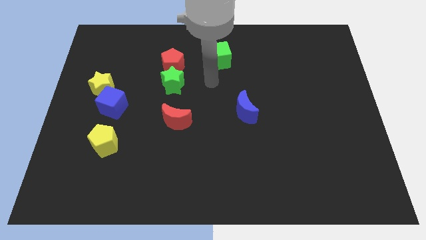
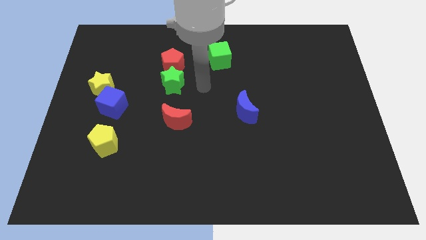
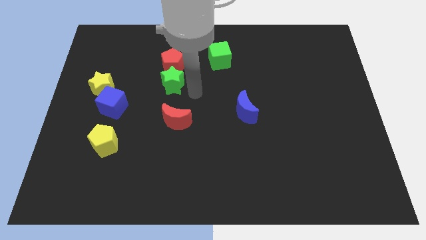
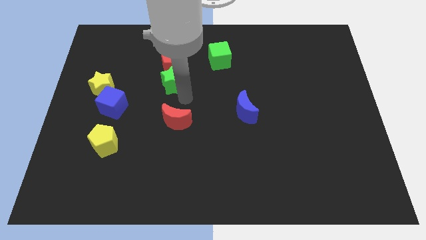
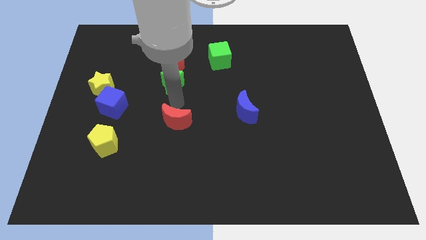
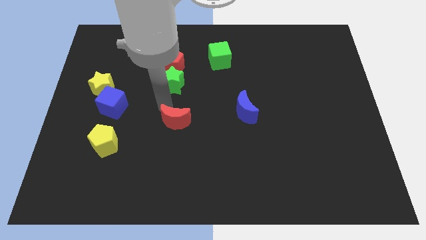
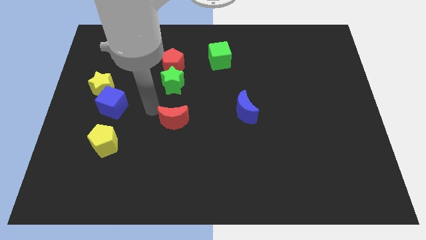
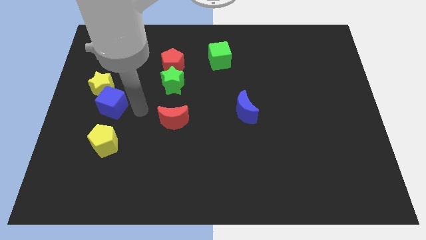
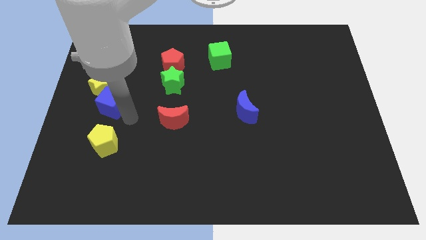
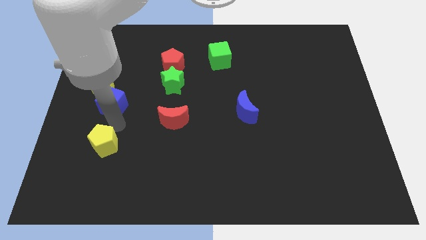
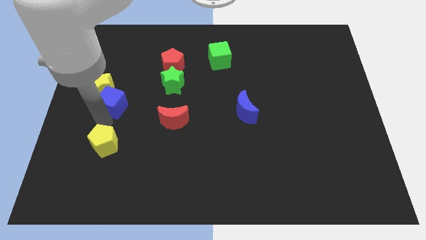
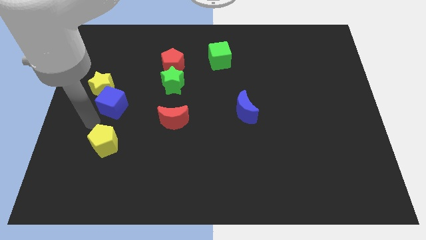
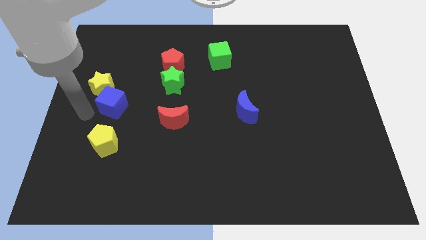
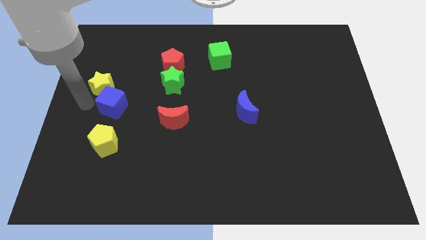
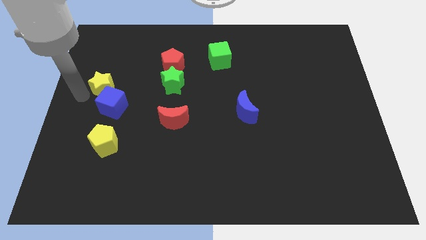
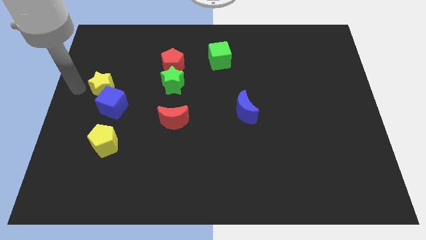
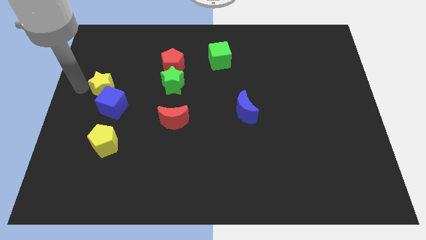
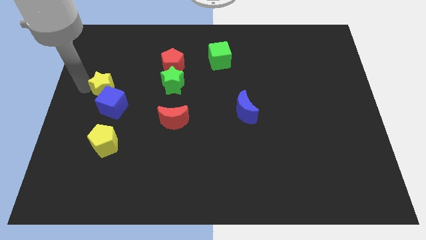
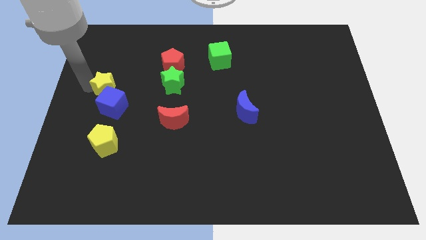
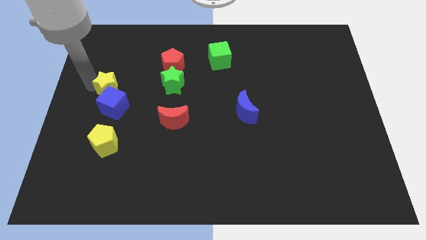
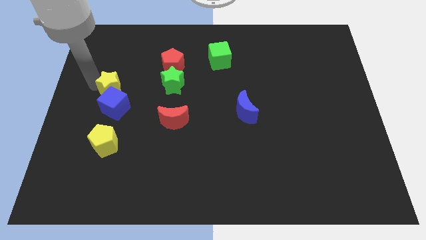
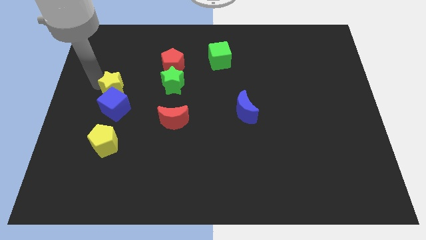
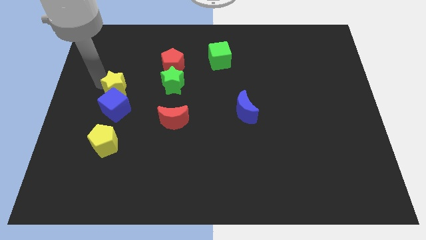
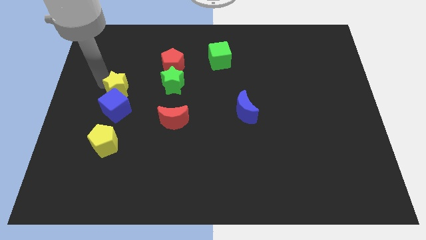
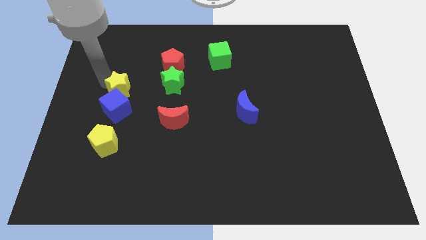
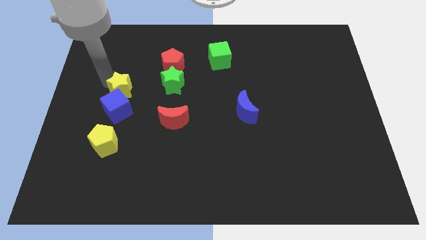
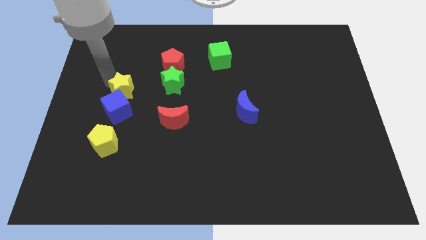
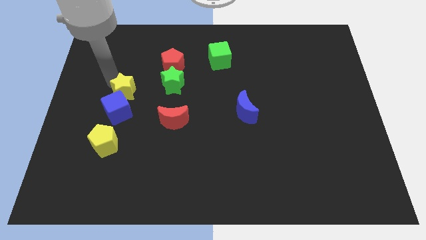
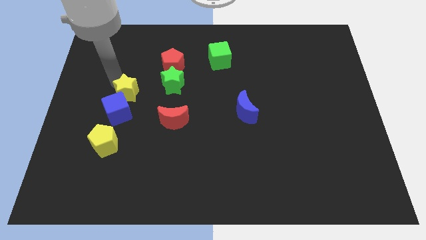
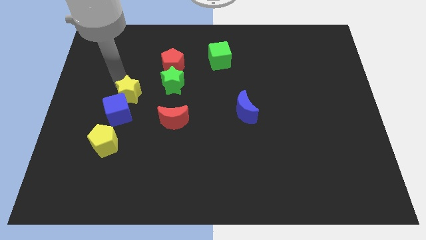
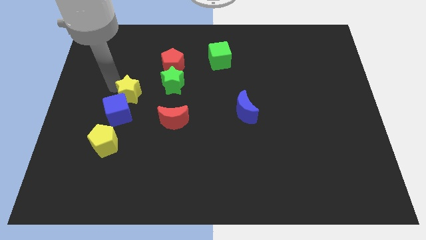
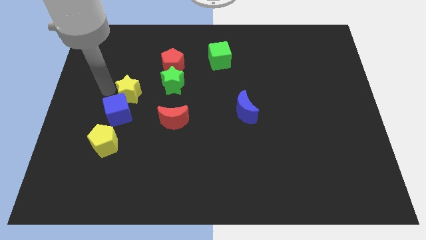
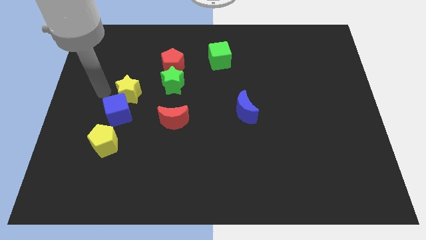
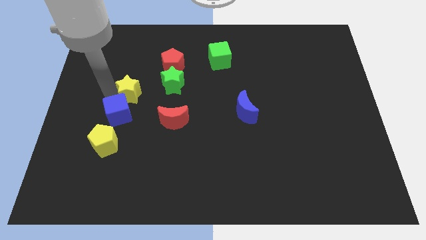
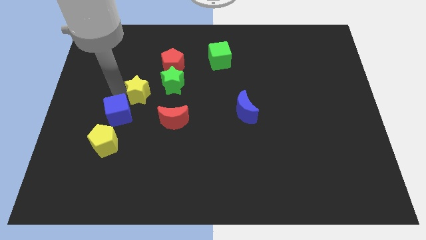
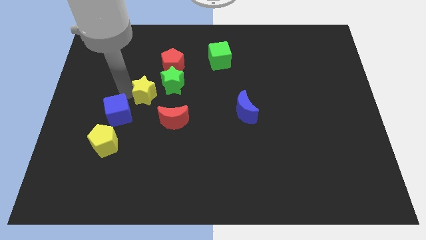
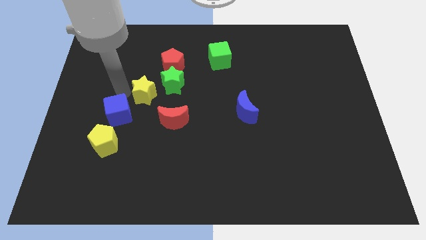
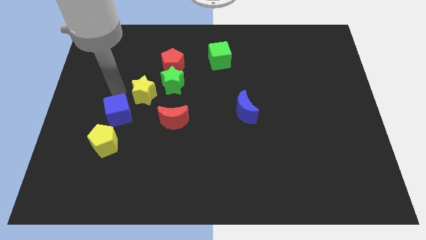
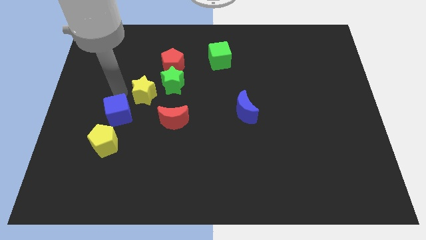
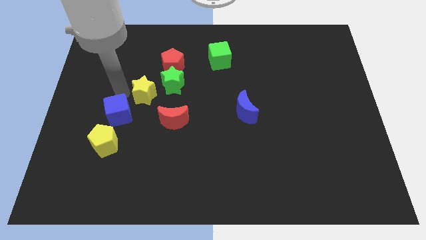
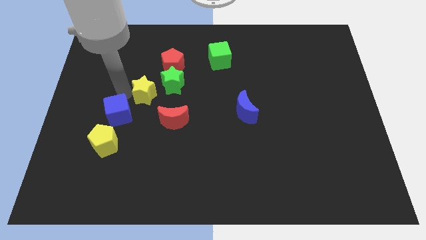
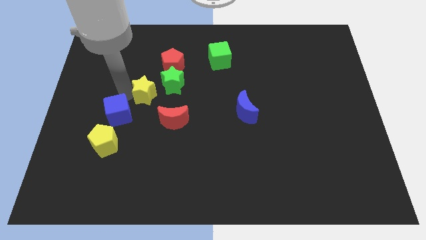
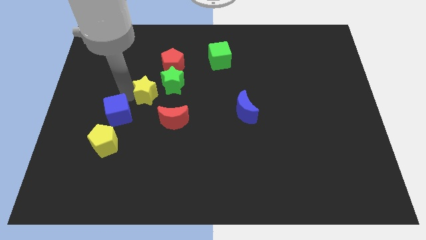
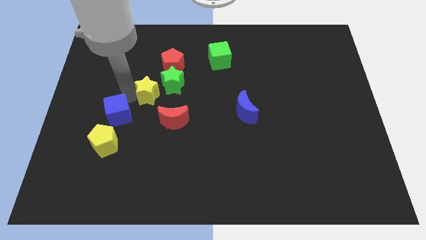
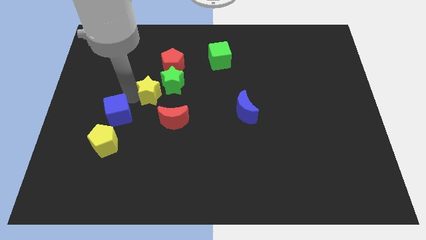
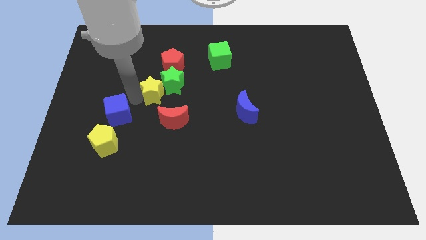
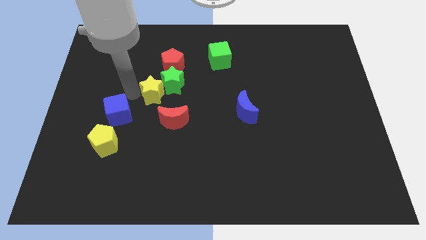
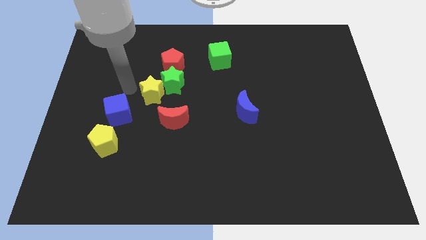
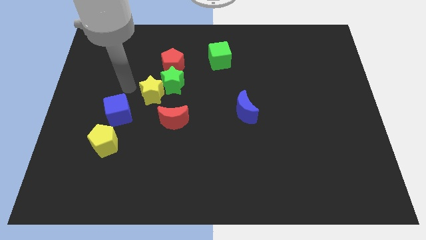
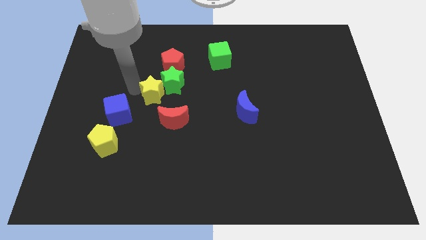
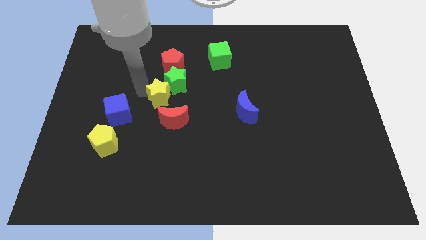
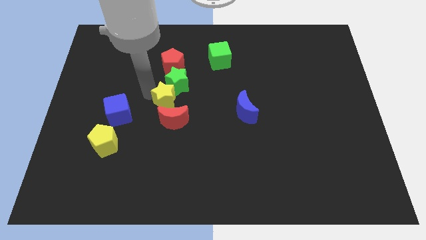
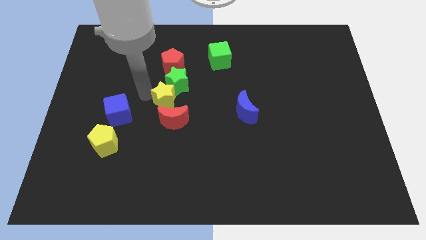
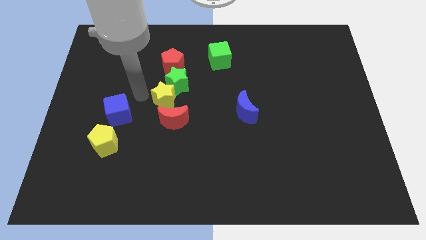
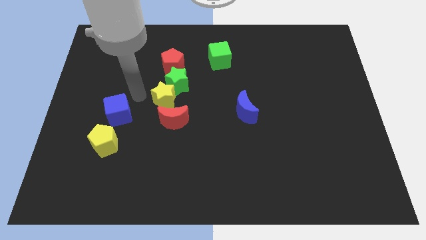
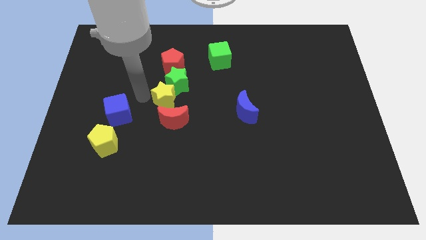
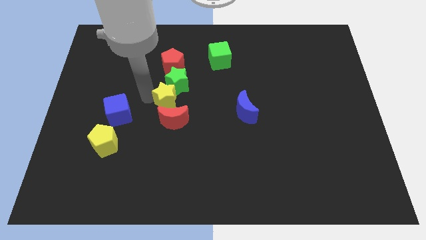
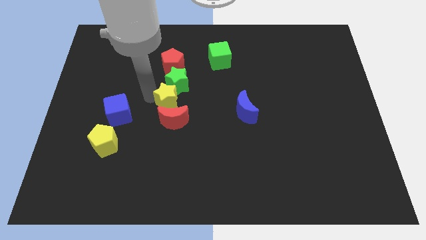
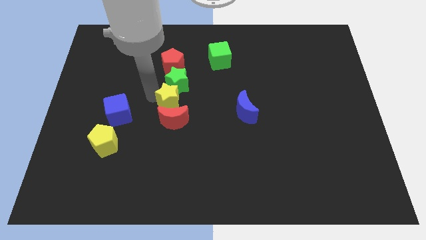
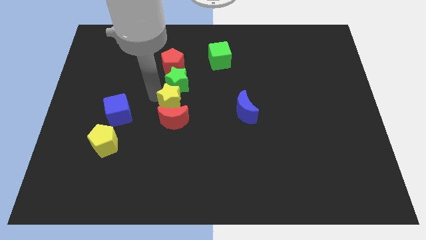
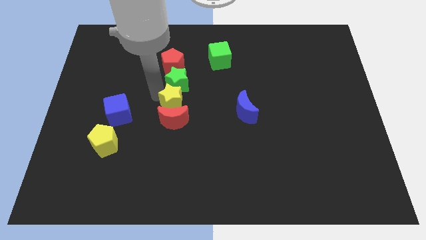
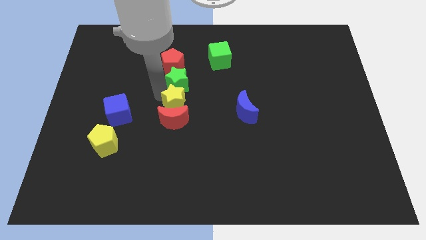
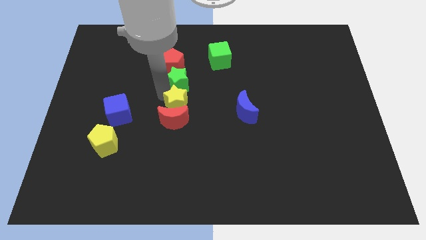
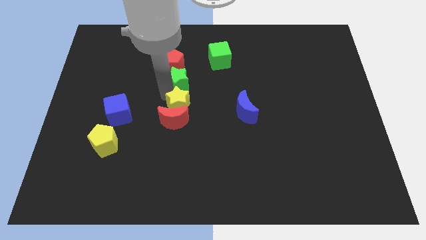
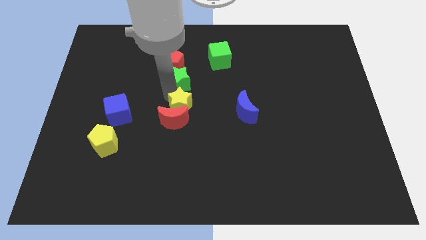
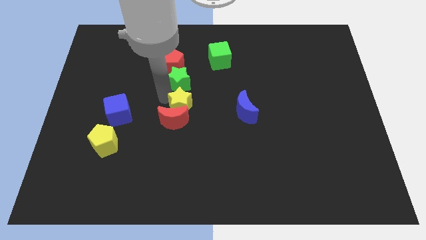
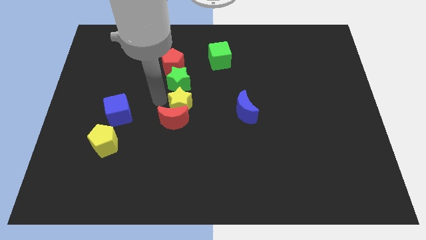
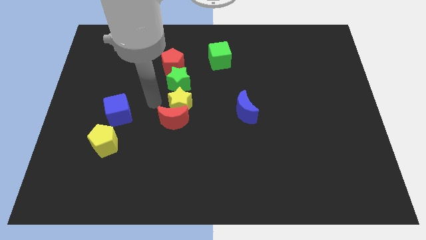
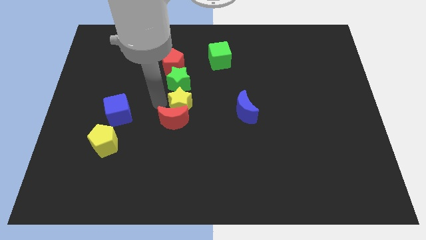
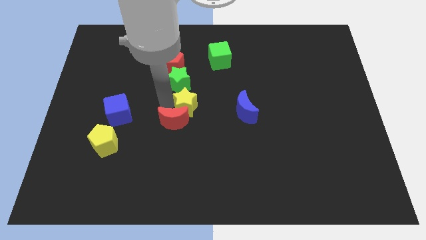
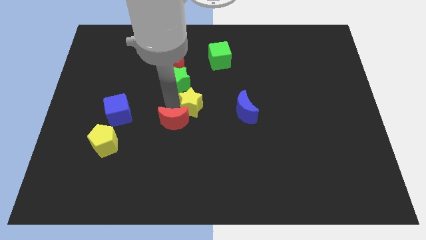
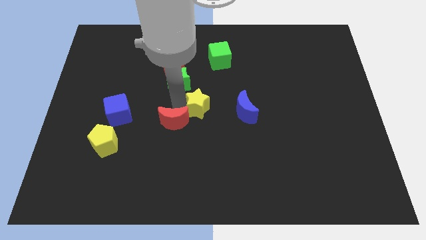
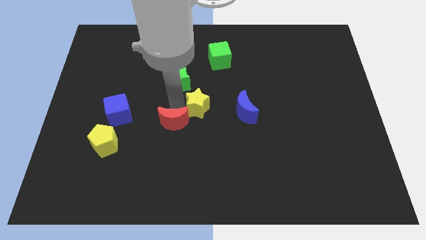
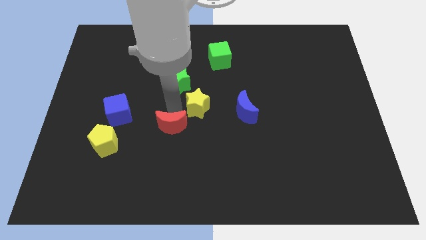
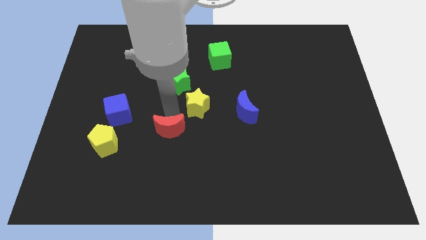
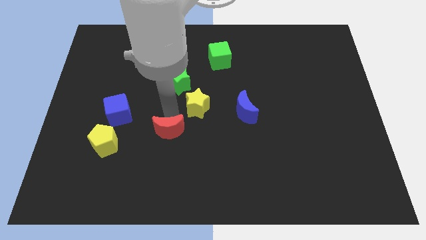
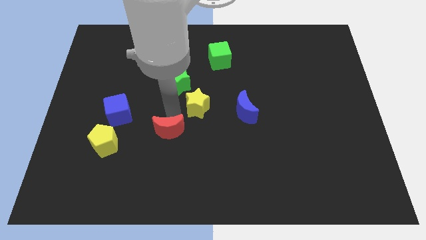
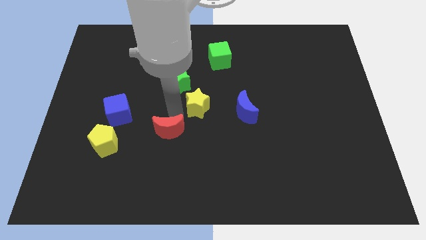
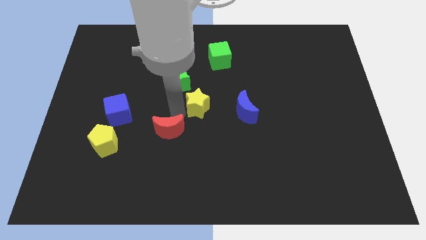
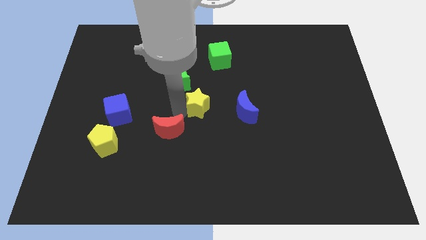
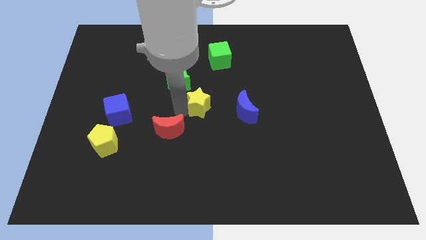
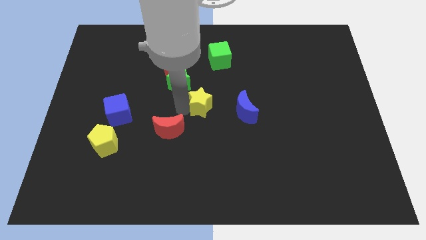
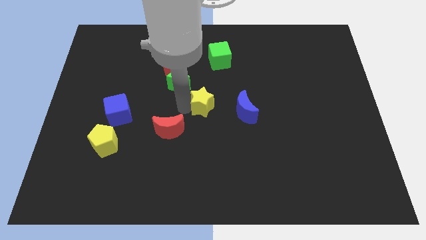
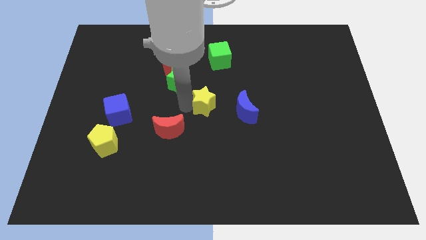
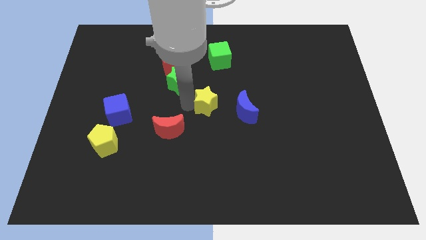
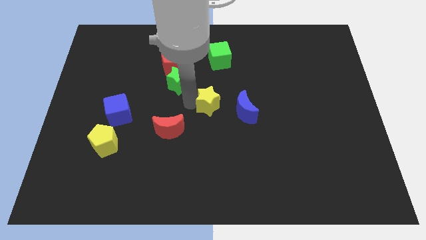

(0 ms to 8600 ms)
push the yellow star to the bottom of the green cube
